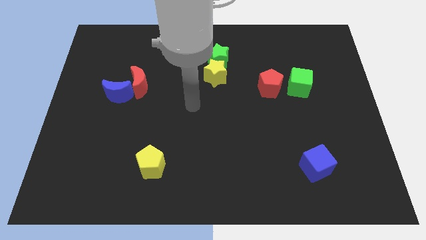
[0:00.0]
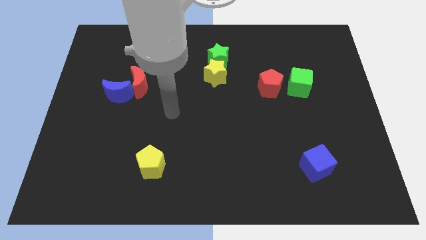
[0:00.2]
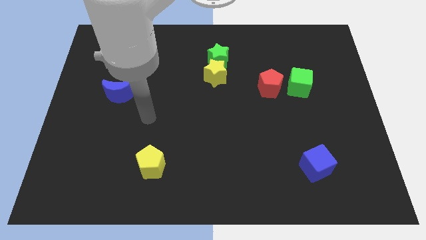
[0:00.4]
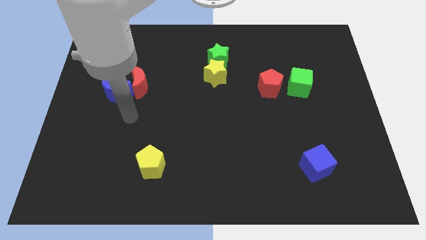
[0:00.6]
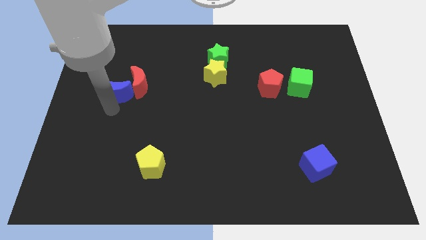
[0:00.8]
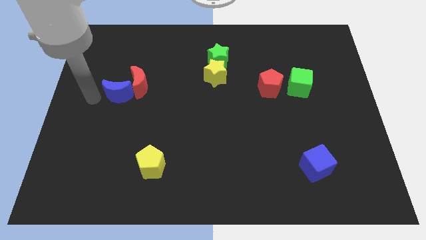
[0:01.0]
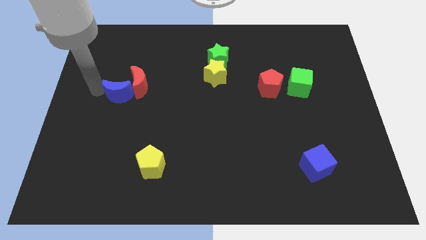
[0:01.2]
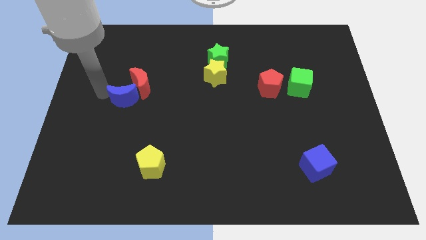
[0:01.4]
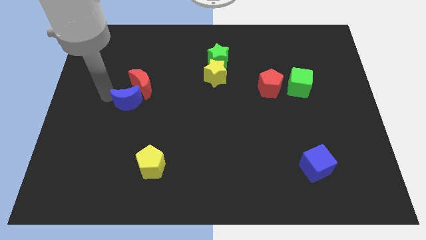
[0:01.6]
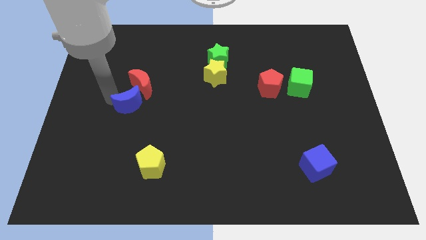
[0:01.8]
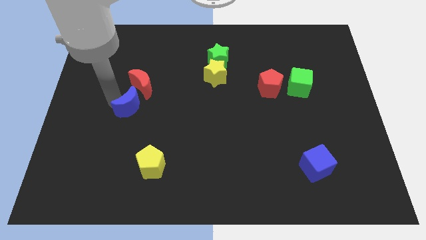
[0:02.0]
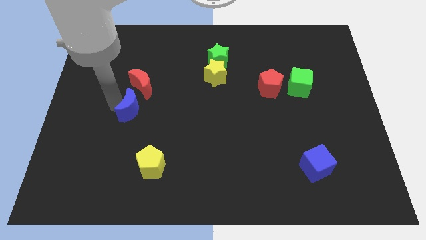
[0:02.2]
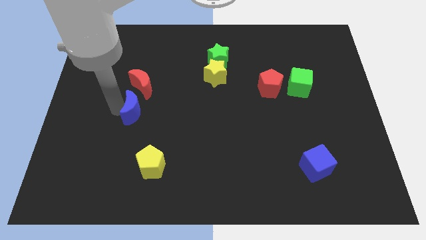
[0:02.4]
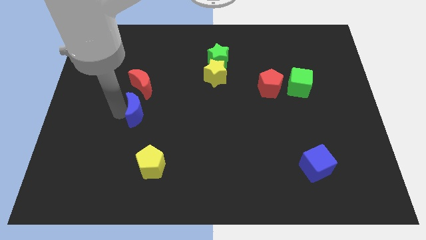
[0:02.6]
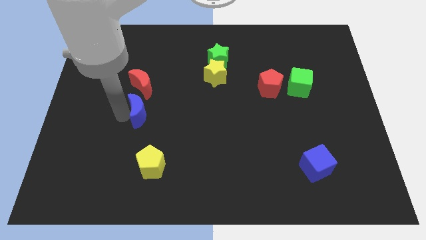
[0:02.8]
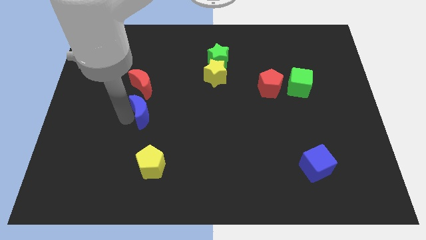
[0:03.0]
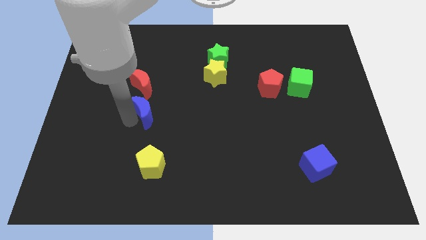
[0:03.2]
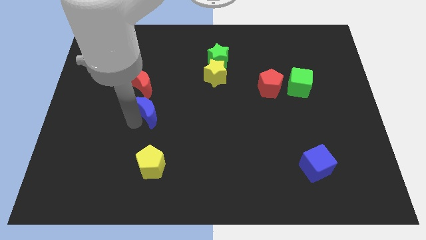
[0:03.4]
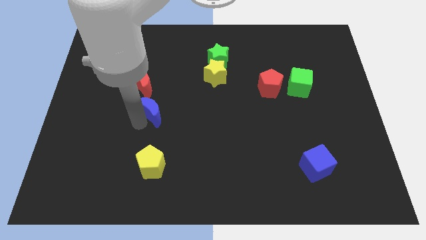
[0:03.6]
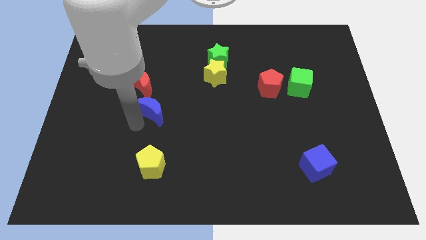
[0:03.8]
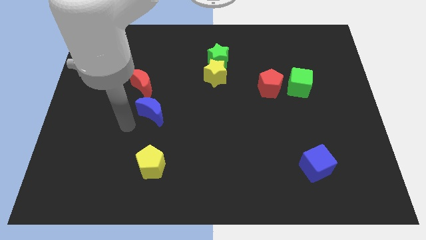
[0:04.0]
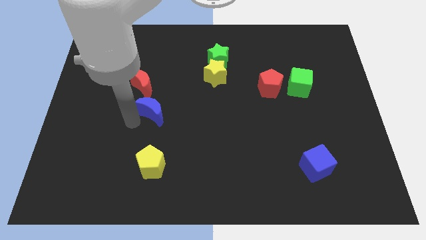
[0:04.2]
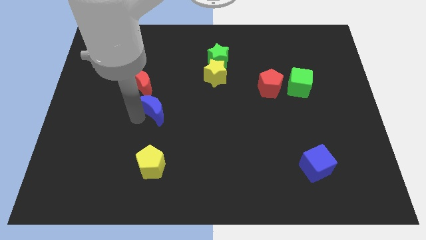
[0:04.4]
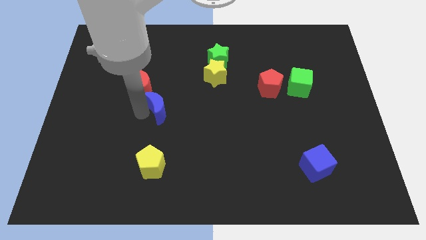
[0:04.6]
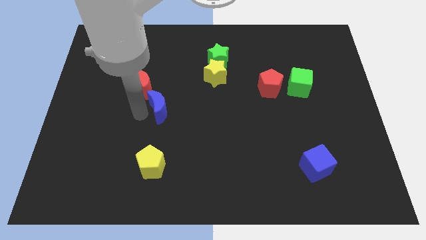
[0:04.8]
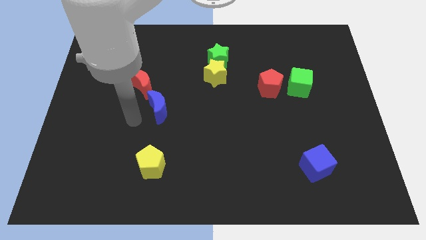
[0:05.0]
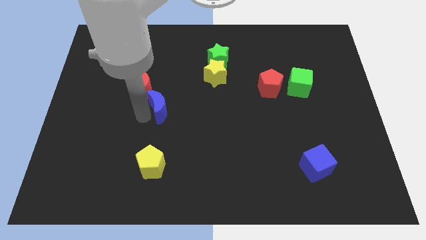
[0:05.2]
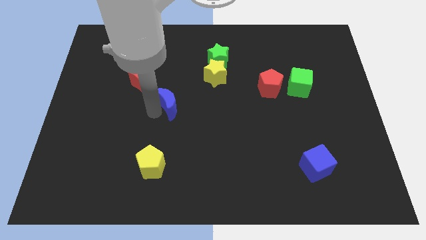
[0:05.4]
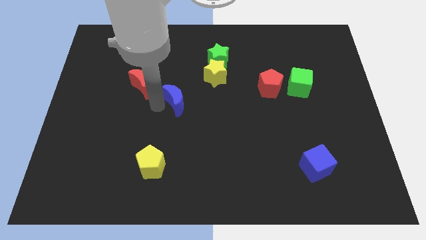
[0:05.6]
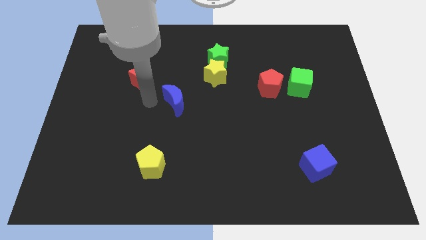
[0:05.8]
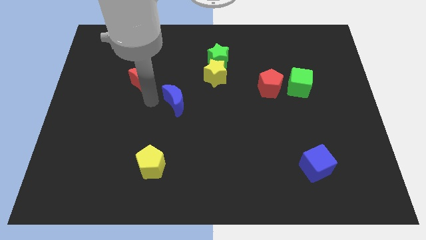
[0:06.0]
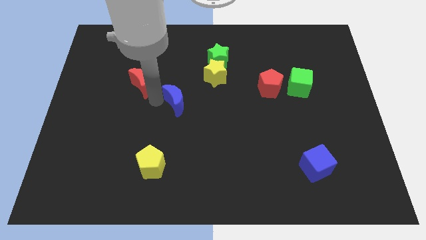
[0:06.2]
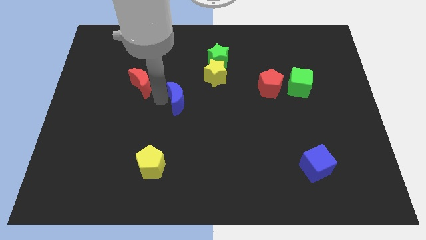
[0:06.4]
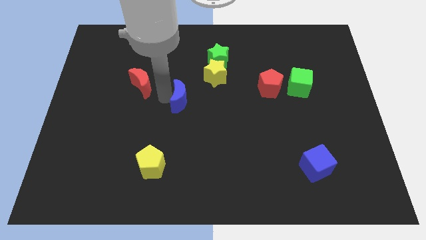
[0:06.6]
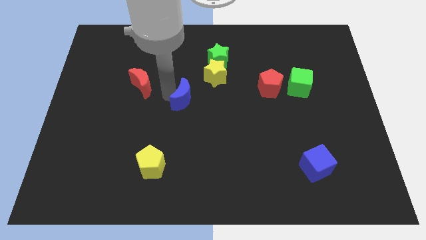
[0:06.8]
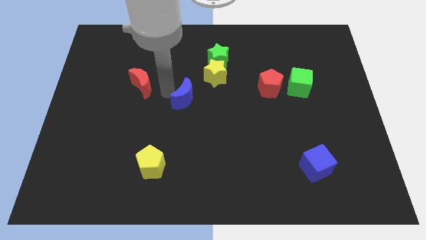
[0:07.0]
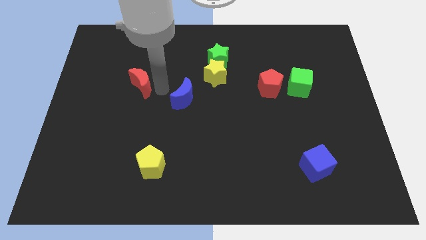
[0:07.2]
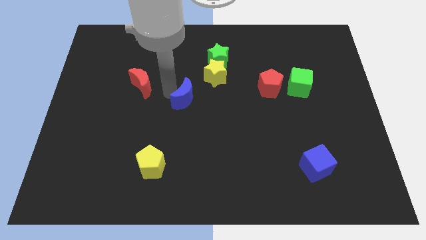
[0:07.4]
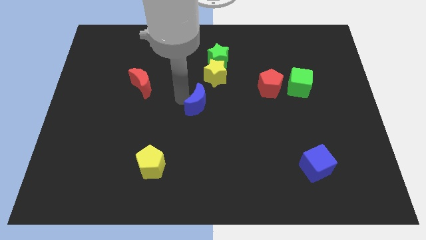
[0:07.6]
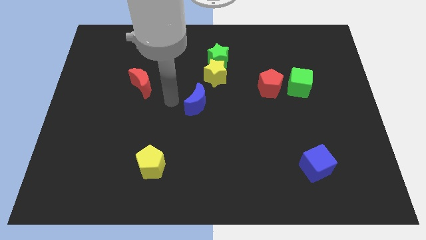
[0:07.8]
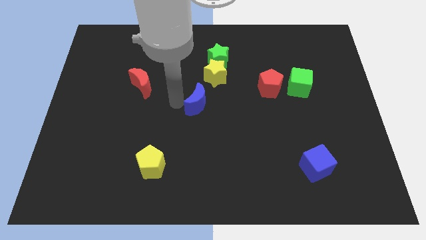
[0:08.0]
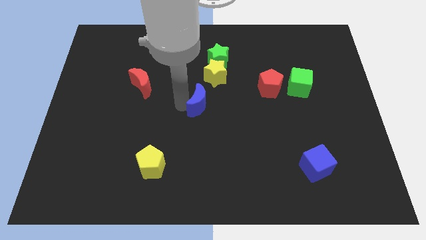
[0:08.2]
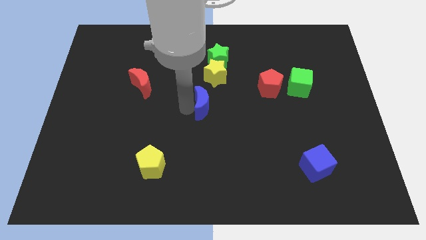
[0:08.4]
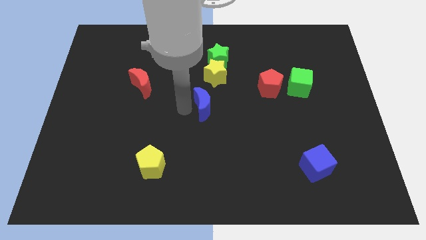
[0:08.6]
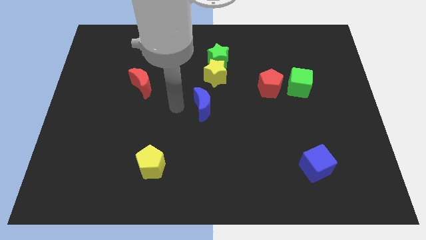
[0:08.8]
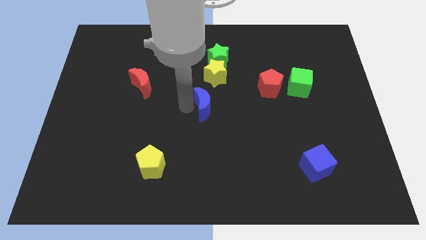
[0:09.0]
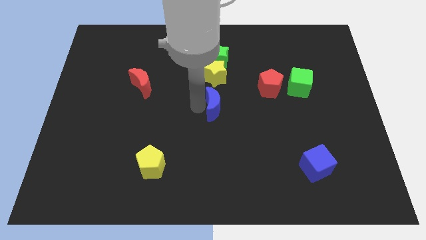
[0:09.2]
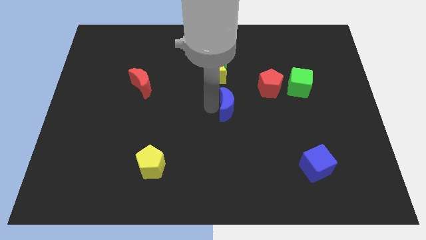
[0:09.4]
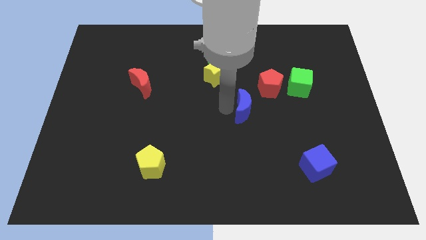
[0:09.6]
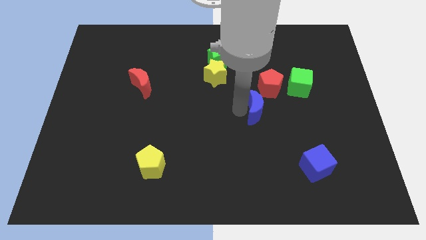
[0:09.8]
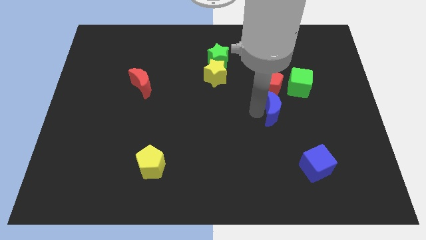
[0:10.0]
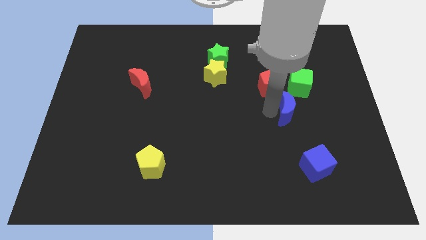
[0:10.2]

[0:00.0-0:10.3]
put the blue moon to the bottom of the green cube

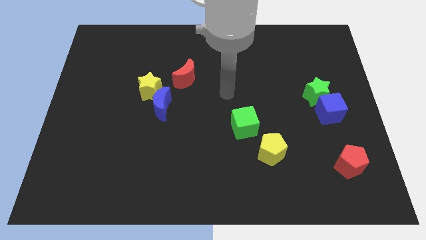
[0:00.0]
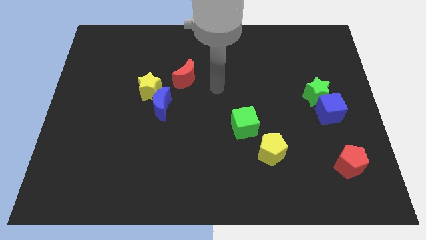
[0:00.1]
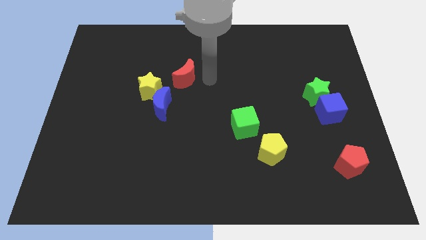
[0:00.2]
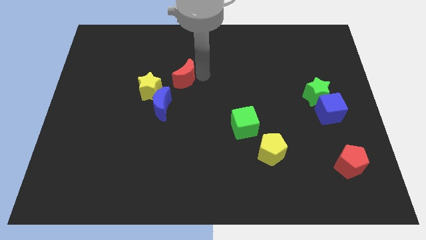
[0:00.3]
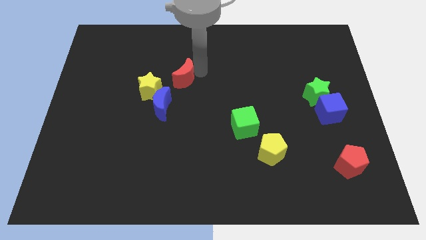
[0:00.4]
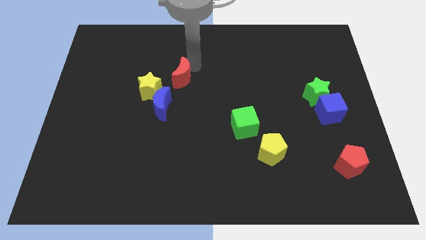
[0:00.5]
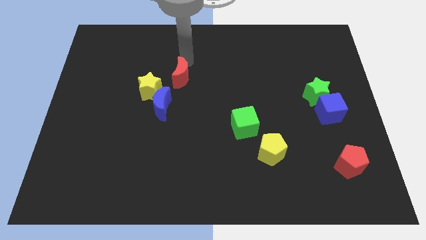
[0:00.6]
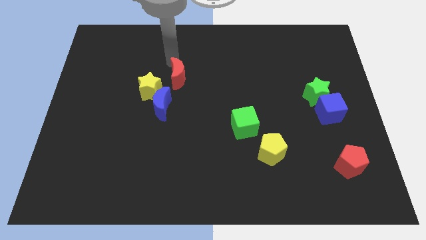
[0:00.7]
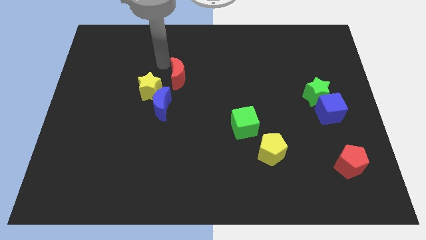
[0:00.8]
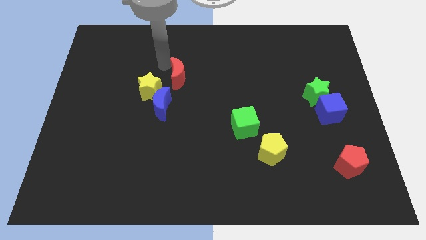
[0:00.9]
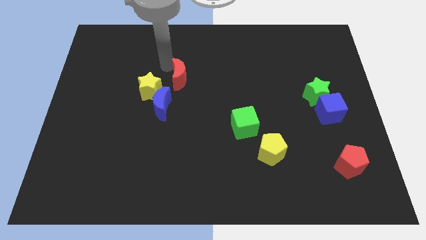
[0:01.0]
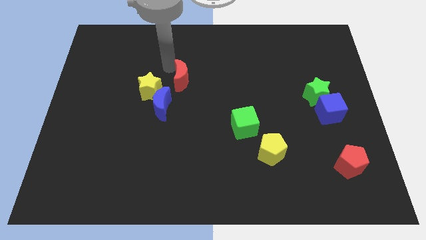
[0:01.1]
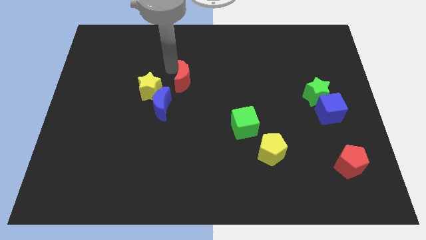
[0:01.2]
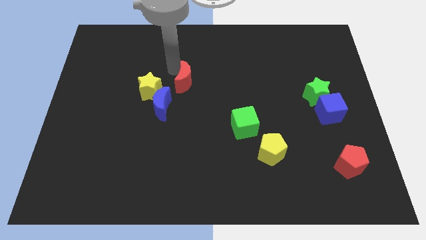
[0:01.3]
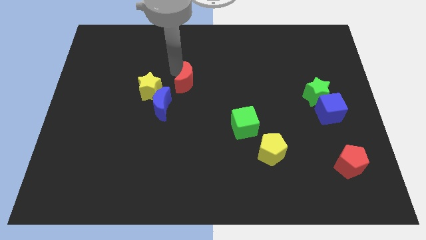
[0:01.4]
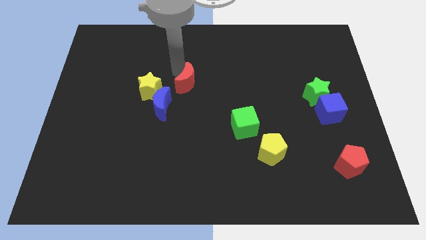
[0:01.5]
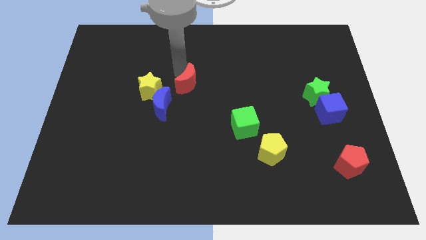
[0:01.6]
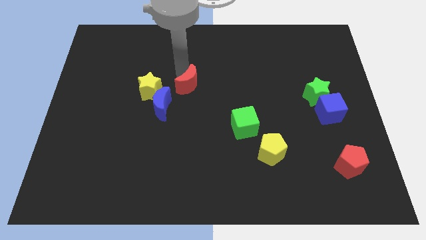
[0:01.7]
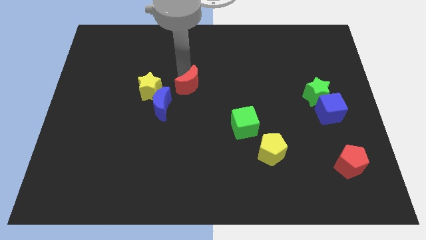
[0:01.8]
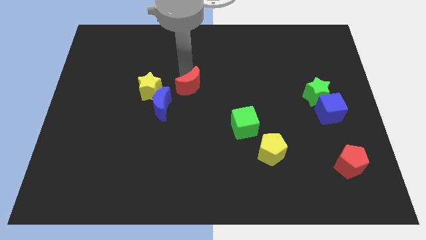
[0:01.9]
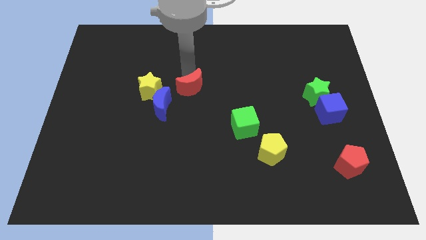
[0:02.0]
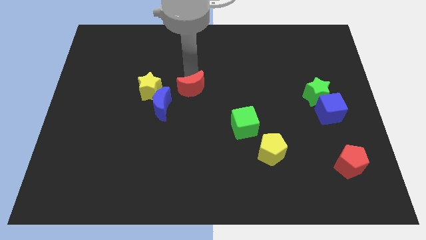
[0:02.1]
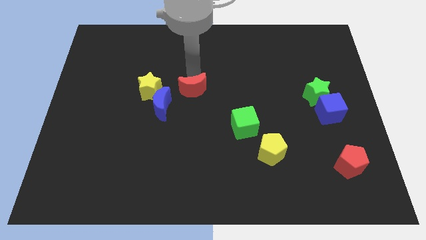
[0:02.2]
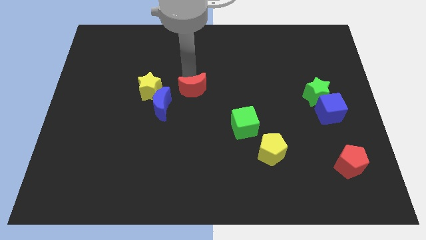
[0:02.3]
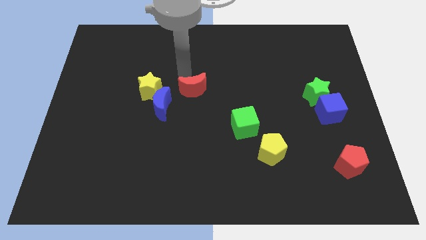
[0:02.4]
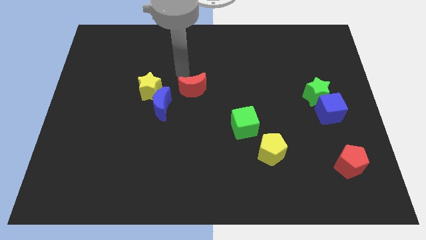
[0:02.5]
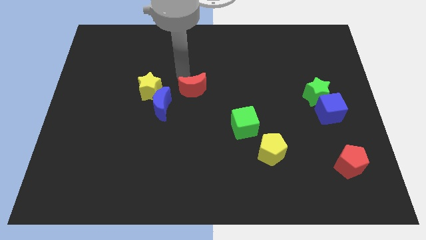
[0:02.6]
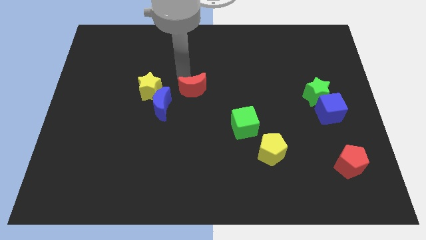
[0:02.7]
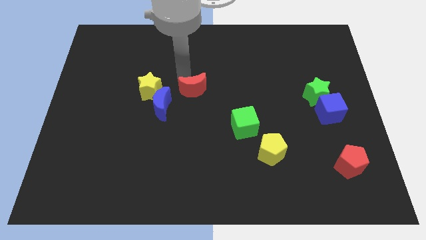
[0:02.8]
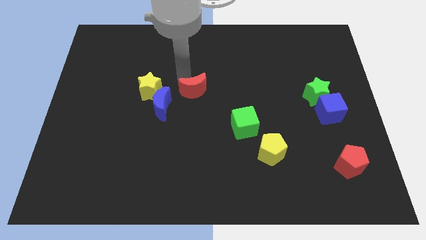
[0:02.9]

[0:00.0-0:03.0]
put the red moon just right of the blue moon
